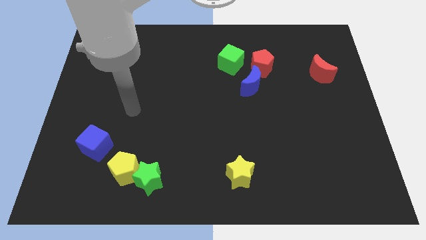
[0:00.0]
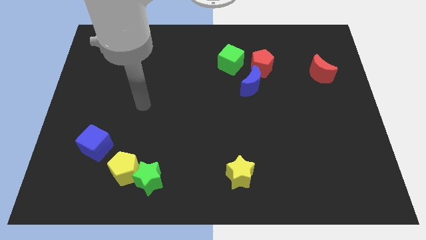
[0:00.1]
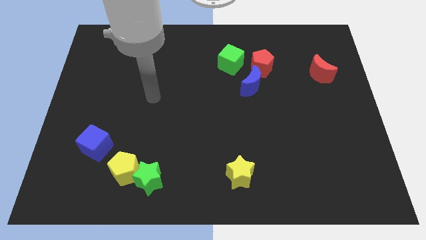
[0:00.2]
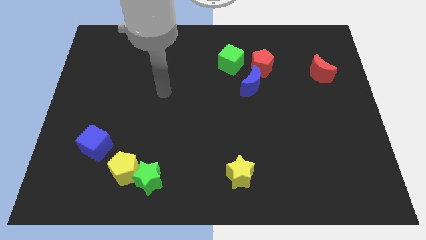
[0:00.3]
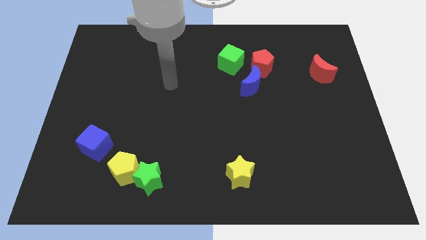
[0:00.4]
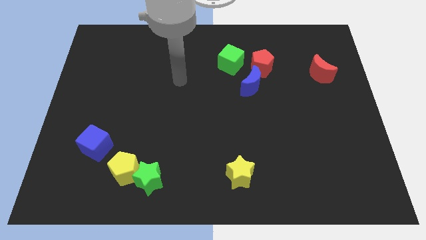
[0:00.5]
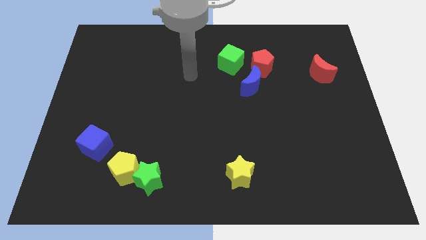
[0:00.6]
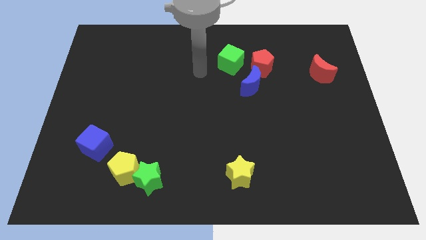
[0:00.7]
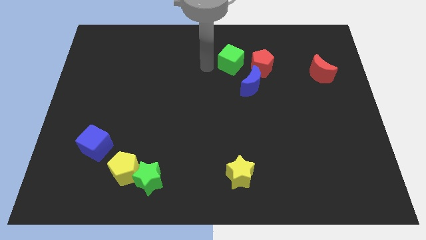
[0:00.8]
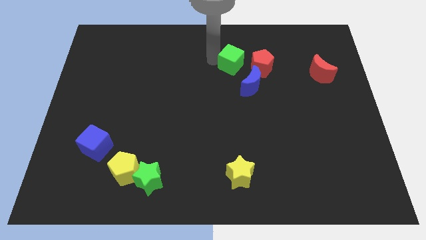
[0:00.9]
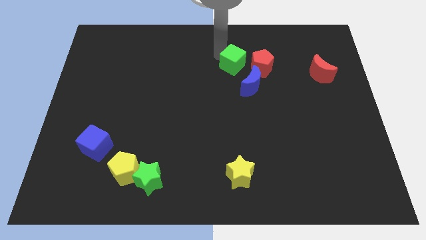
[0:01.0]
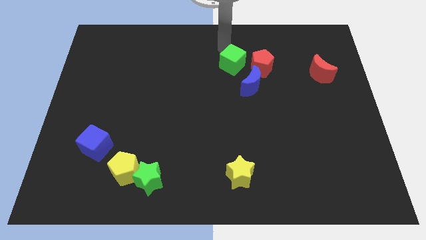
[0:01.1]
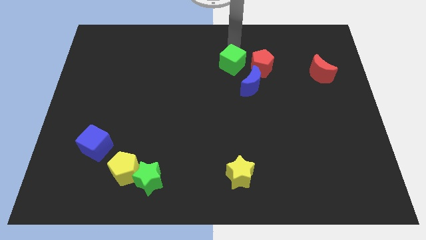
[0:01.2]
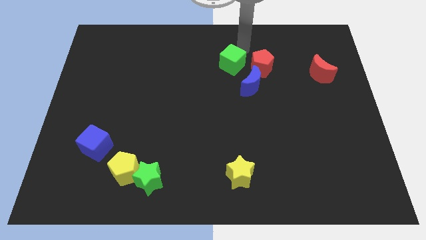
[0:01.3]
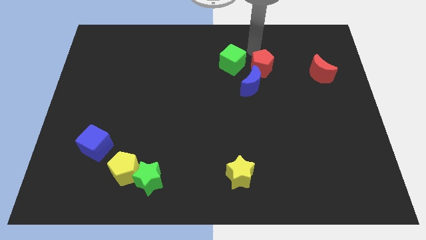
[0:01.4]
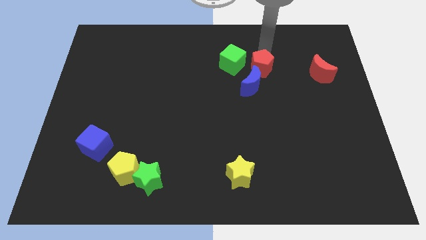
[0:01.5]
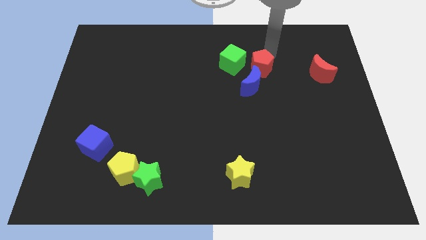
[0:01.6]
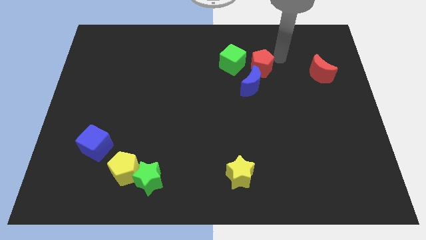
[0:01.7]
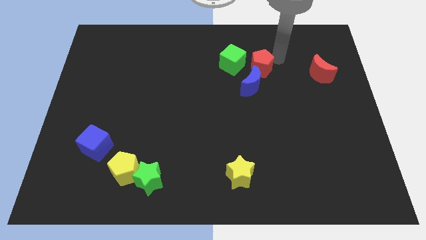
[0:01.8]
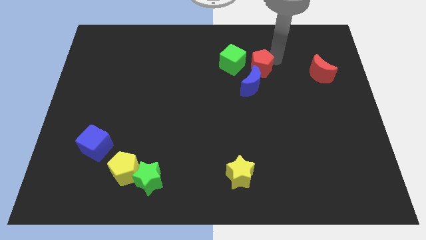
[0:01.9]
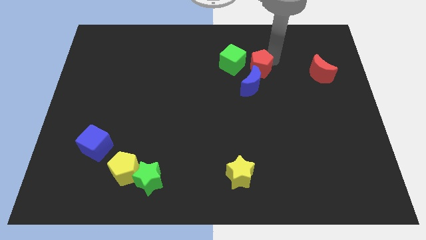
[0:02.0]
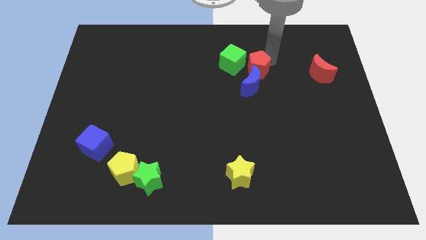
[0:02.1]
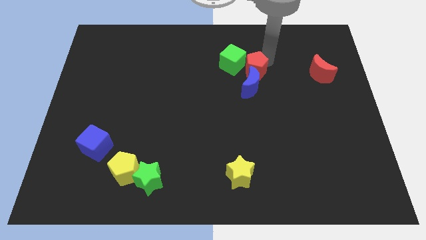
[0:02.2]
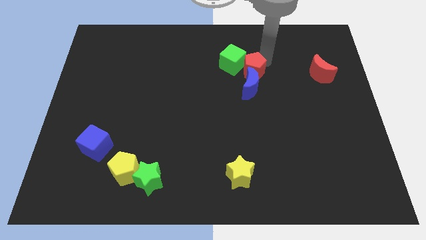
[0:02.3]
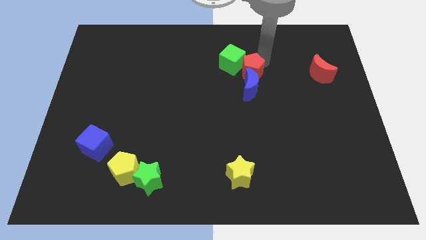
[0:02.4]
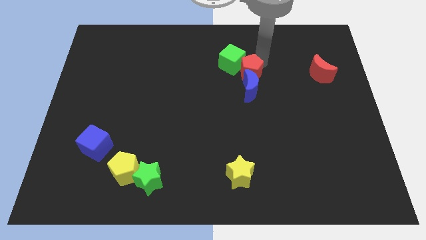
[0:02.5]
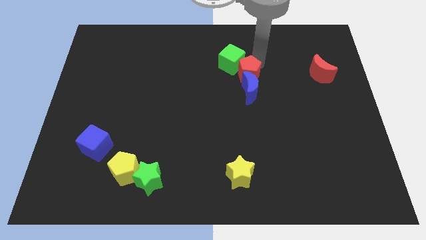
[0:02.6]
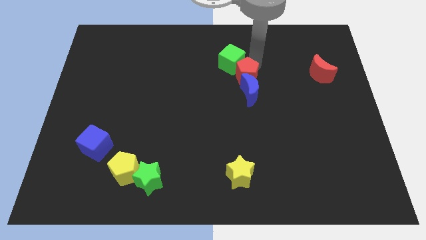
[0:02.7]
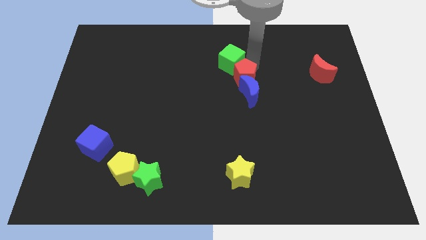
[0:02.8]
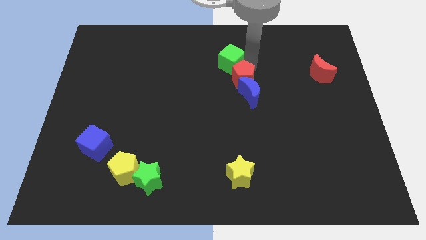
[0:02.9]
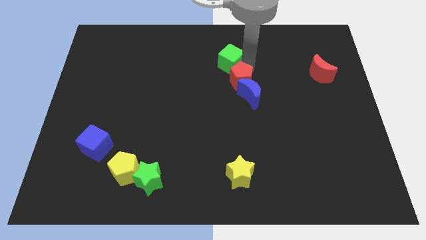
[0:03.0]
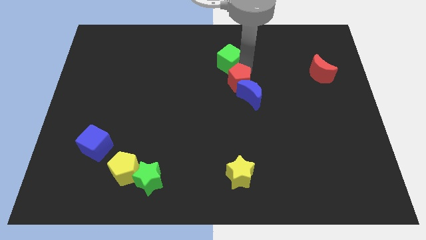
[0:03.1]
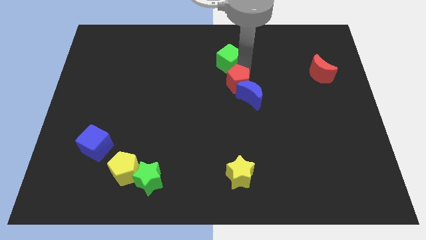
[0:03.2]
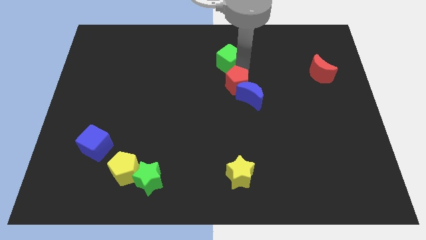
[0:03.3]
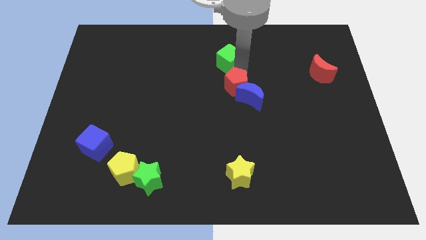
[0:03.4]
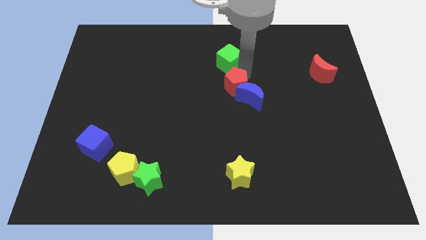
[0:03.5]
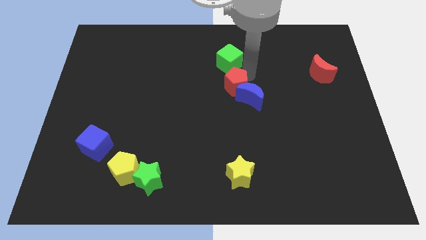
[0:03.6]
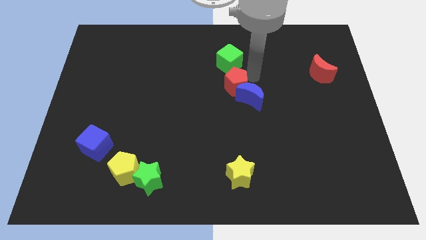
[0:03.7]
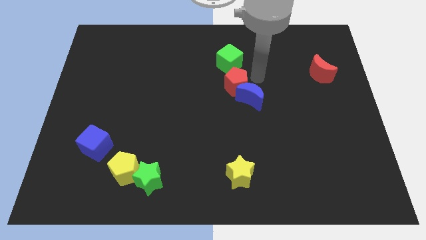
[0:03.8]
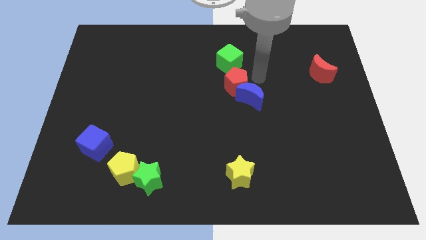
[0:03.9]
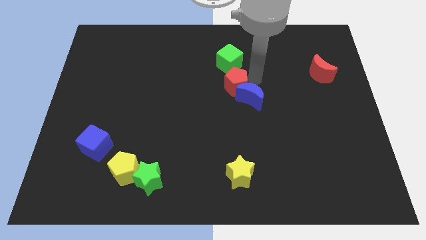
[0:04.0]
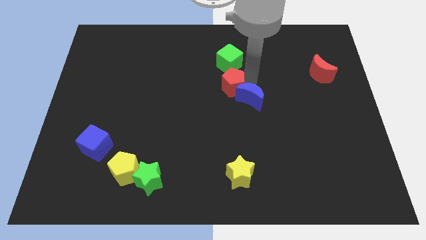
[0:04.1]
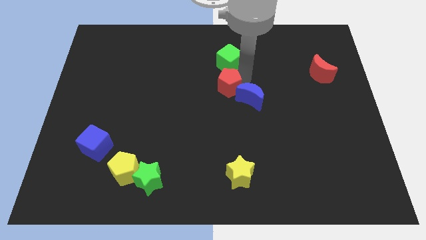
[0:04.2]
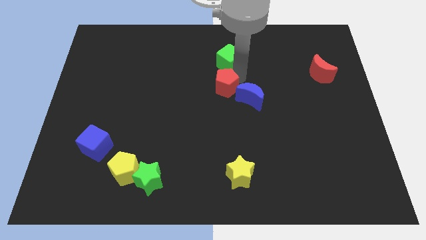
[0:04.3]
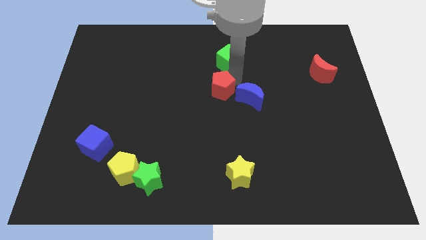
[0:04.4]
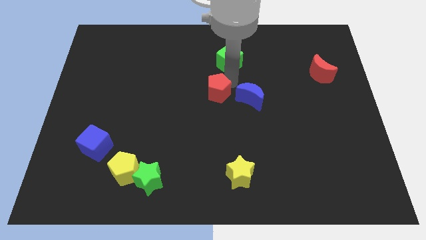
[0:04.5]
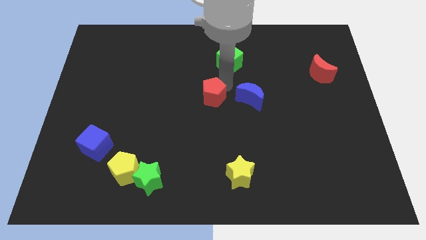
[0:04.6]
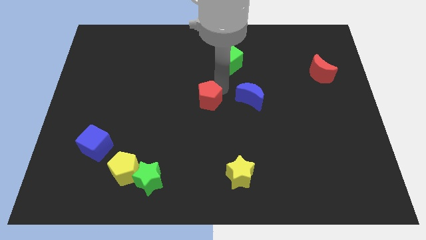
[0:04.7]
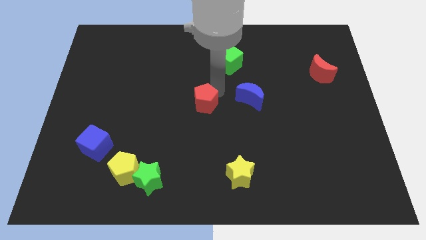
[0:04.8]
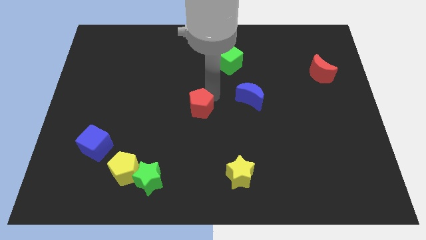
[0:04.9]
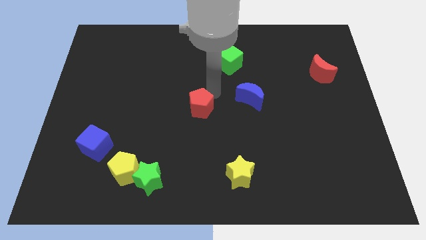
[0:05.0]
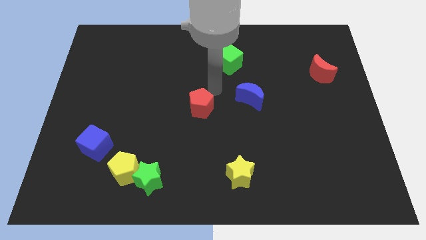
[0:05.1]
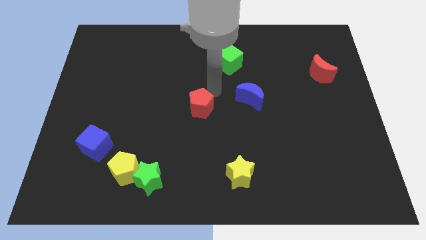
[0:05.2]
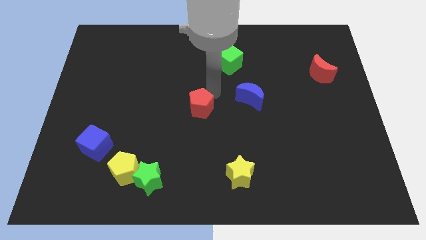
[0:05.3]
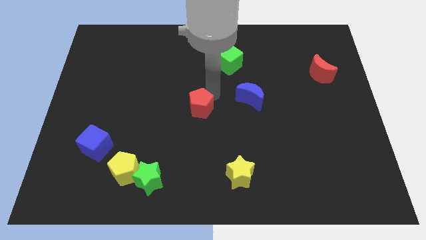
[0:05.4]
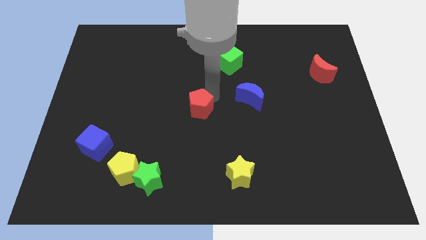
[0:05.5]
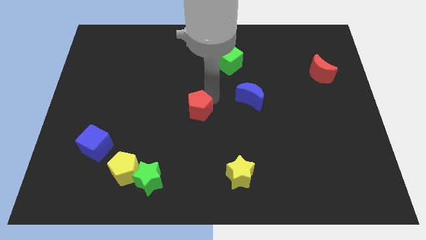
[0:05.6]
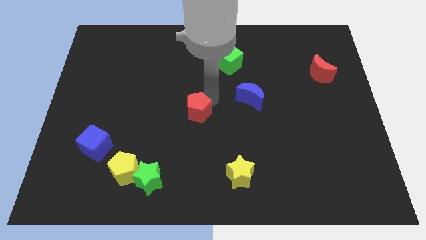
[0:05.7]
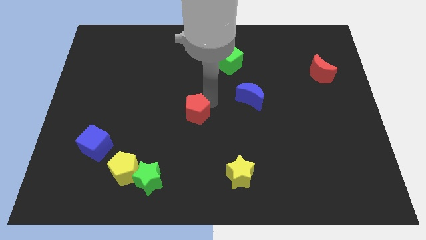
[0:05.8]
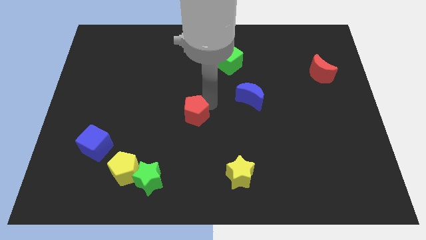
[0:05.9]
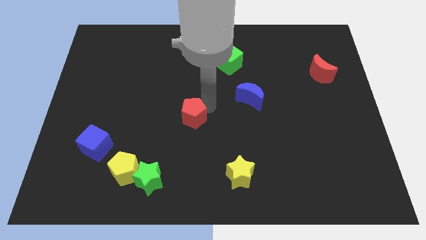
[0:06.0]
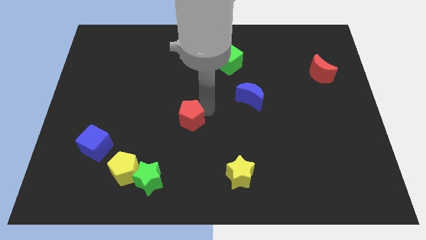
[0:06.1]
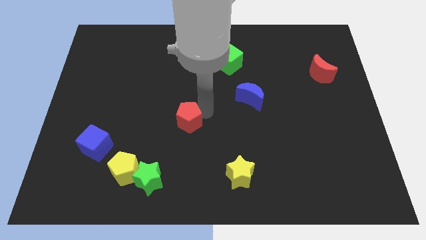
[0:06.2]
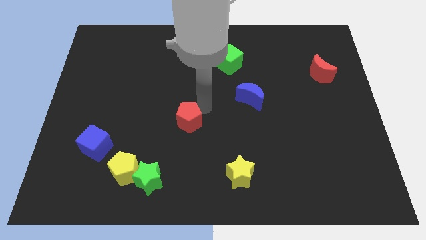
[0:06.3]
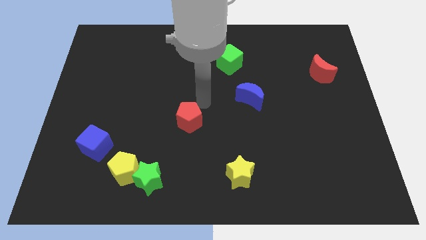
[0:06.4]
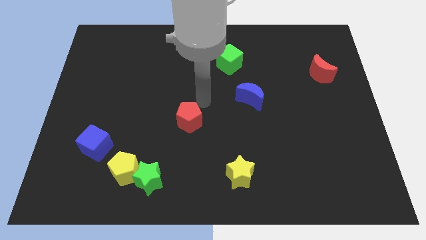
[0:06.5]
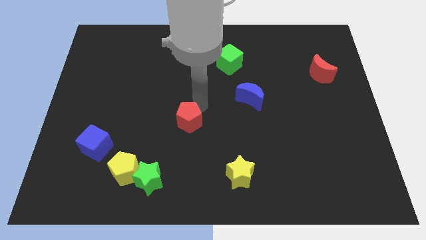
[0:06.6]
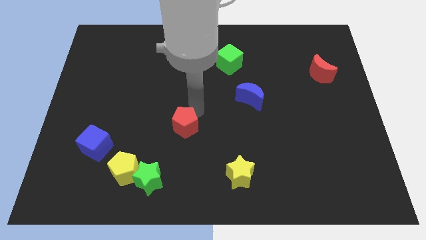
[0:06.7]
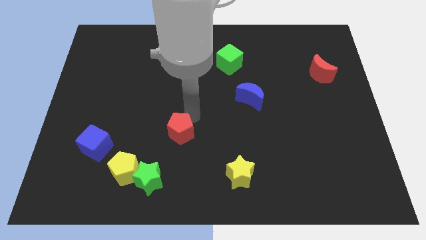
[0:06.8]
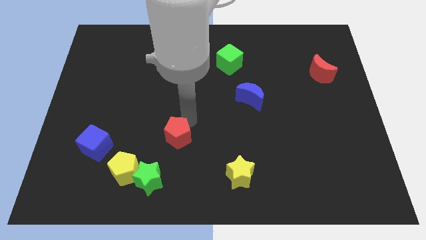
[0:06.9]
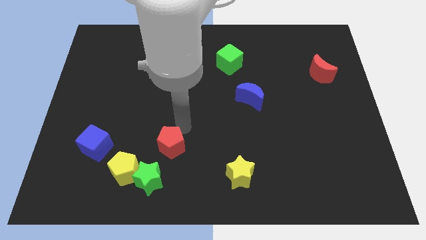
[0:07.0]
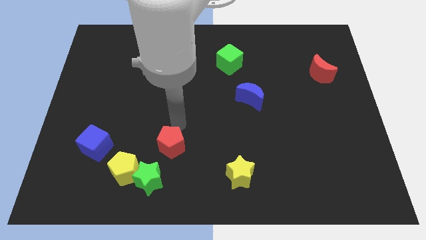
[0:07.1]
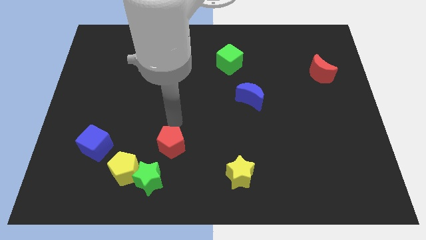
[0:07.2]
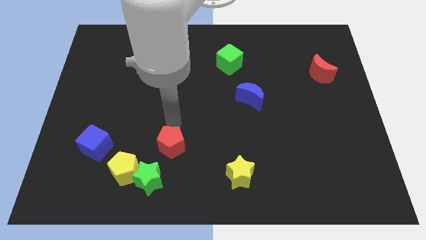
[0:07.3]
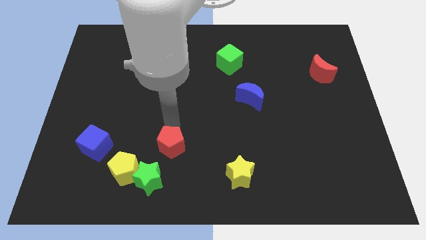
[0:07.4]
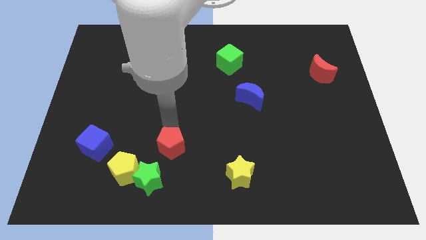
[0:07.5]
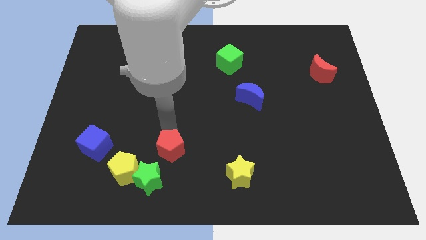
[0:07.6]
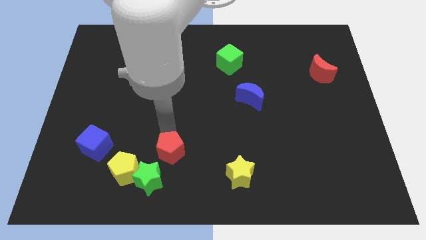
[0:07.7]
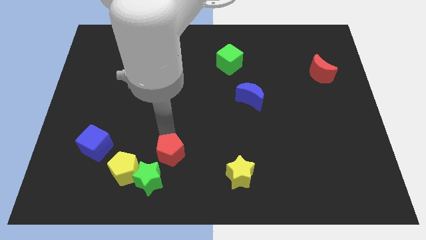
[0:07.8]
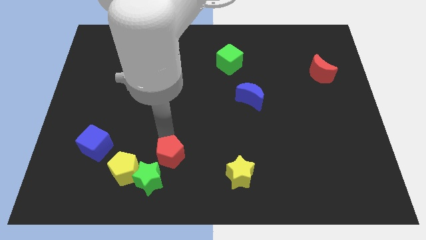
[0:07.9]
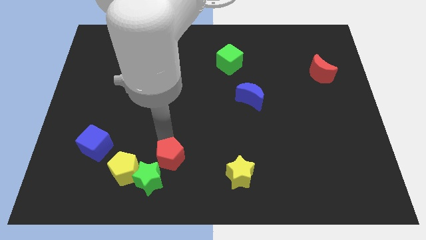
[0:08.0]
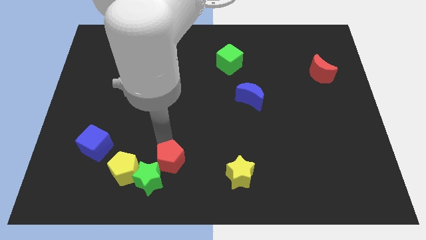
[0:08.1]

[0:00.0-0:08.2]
push the red pentagon towards the green star
